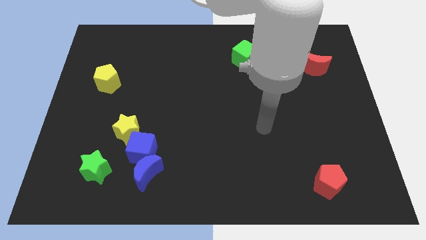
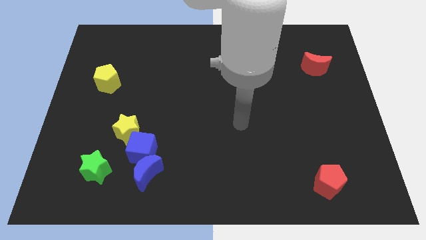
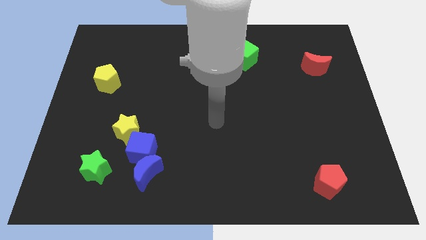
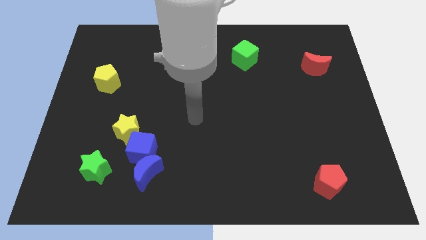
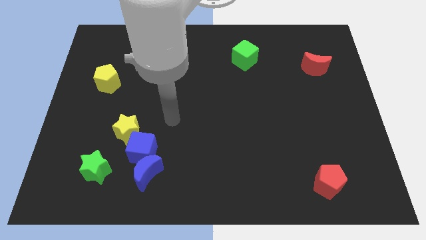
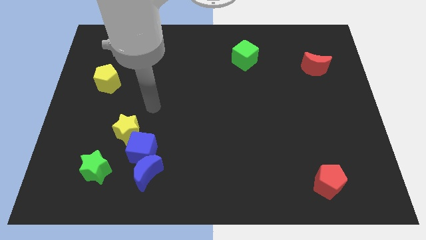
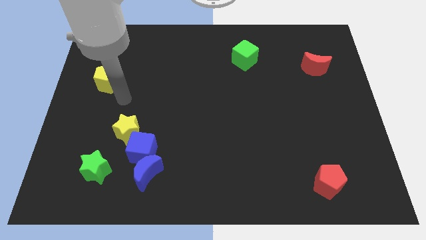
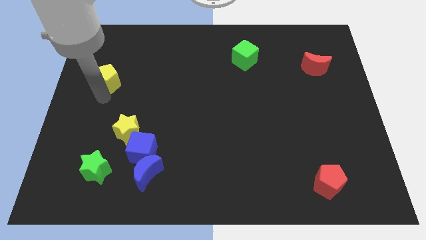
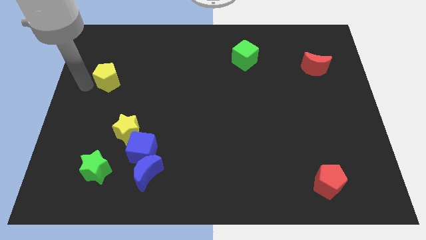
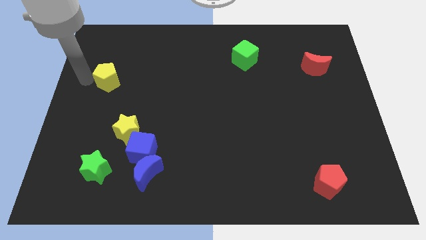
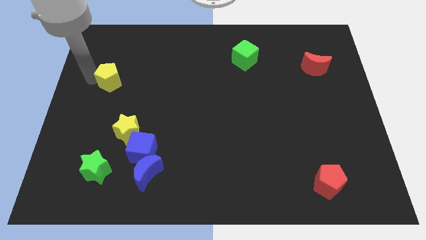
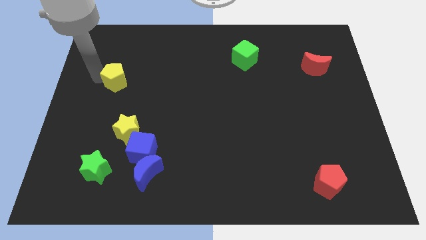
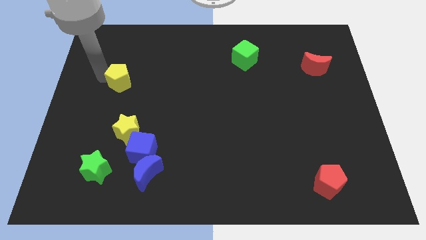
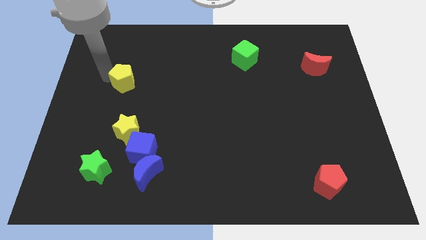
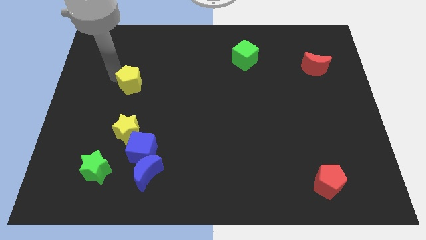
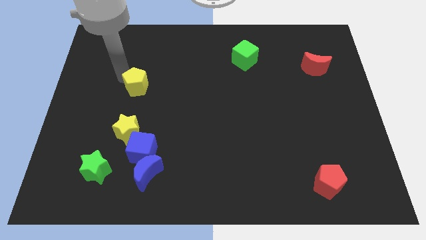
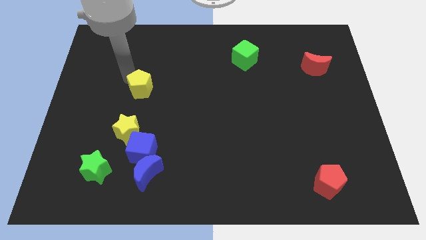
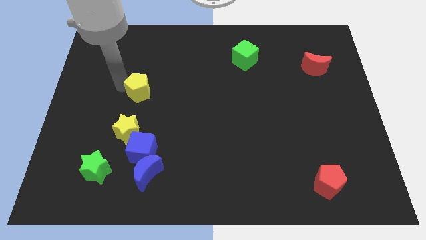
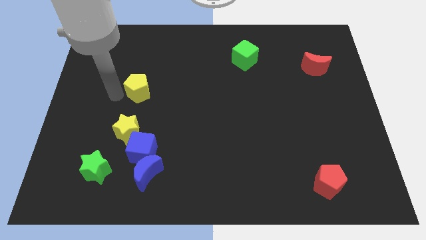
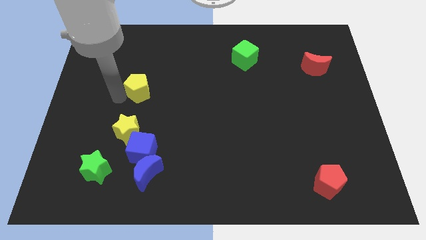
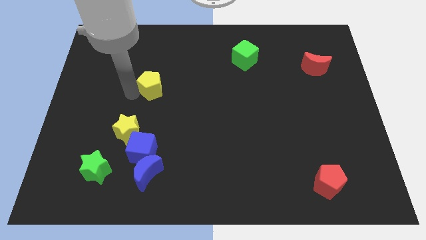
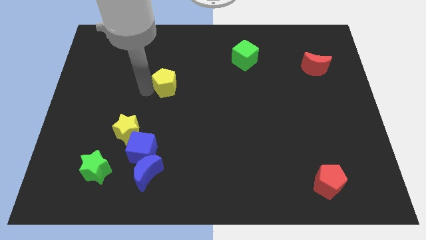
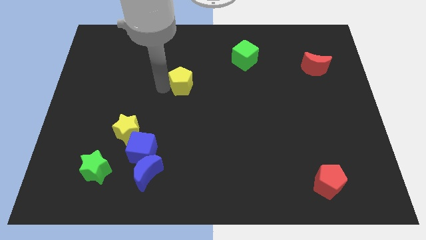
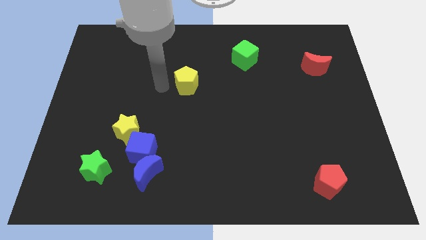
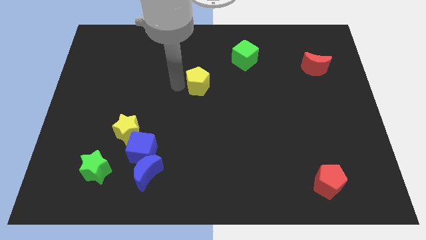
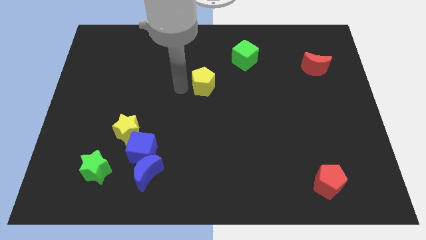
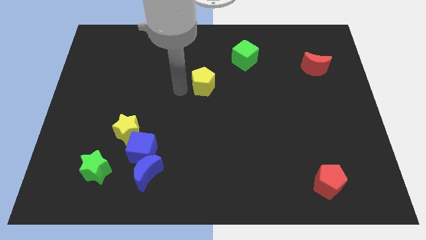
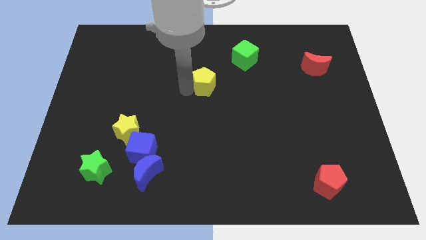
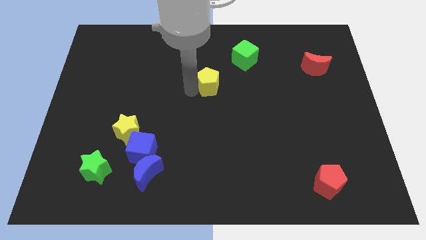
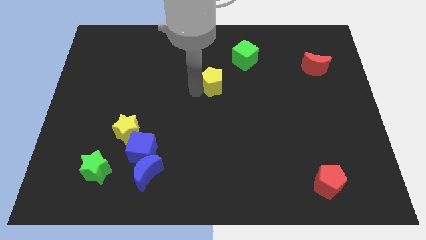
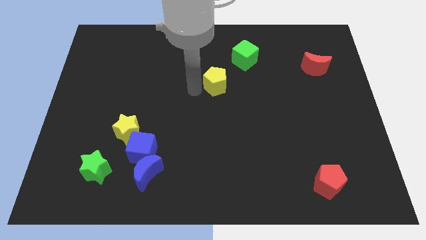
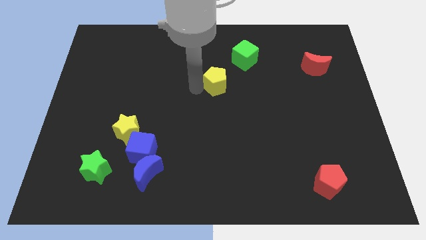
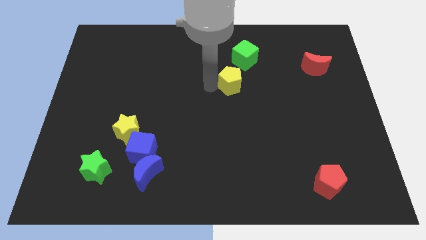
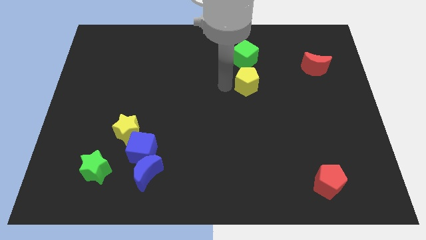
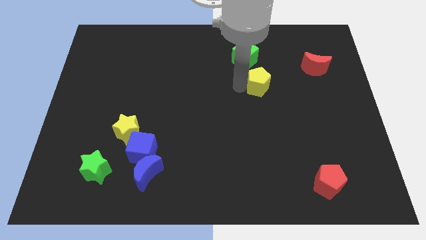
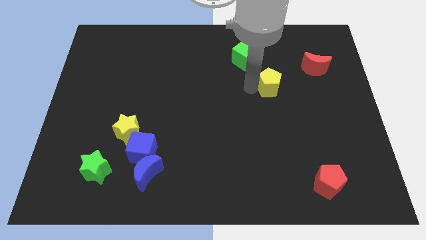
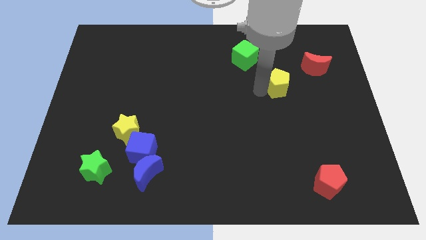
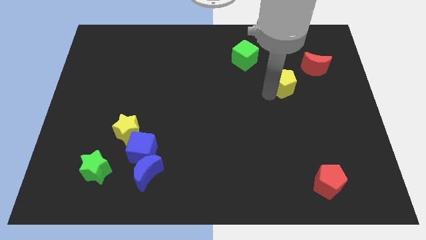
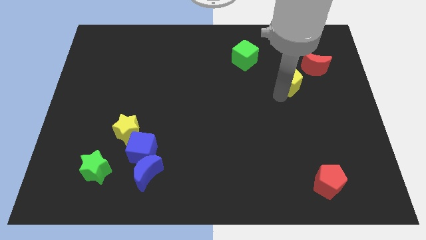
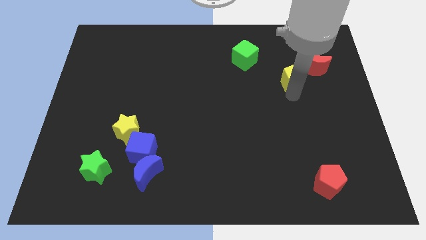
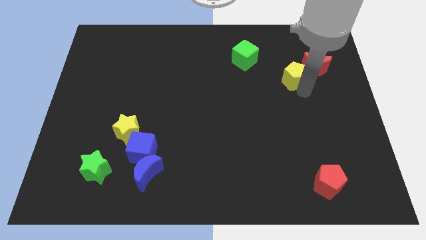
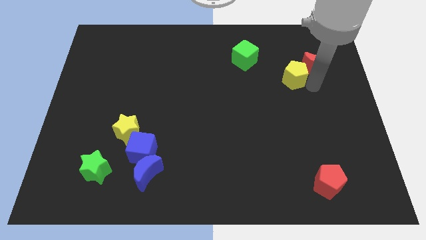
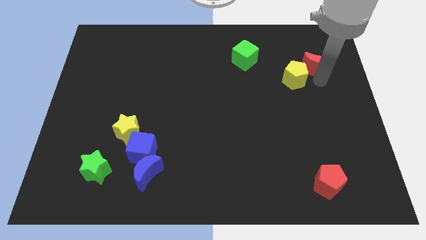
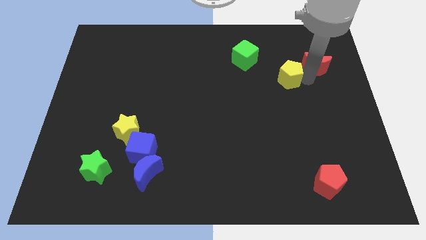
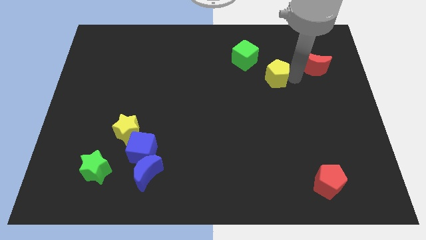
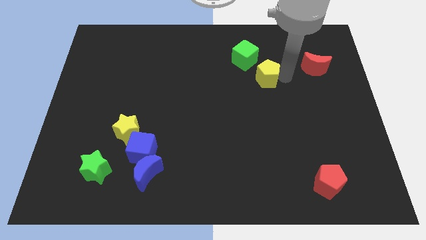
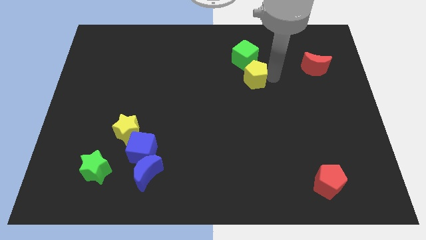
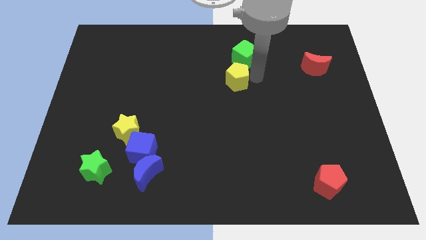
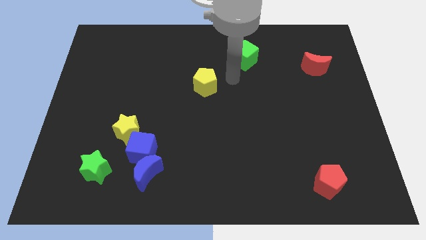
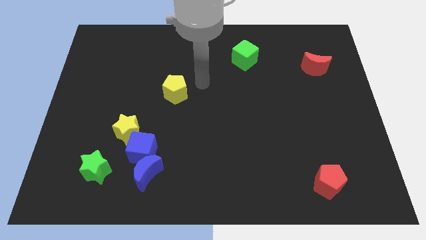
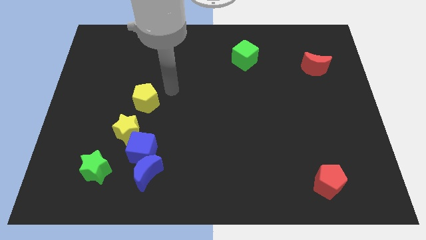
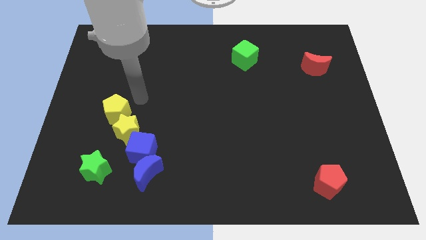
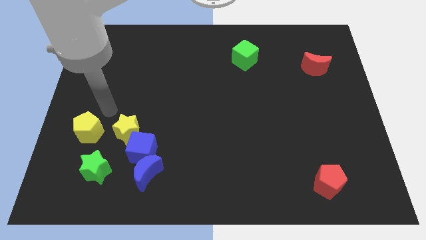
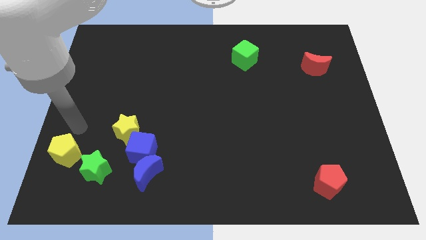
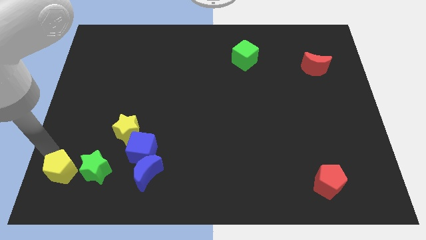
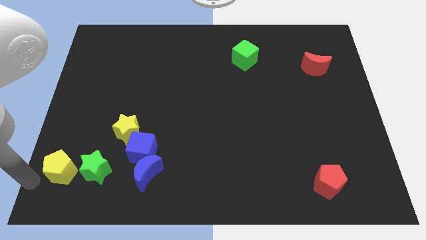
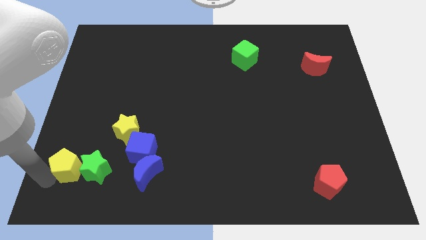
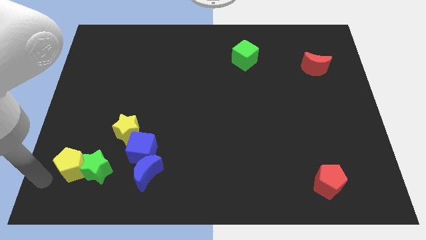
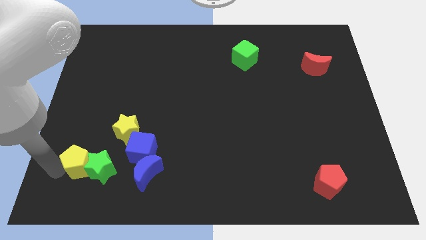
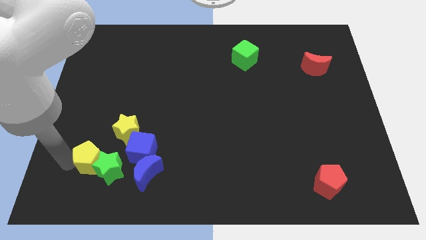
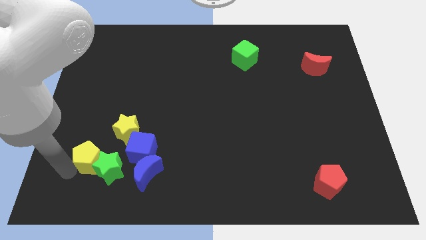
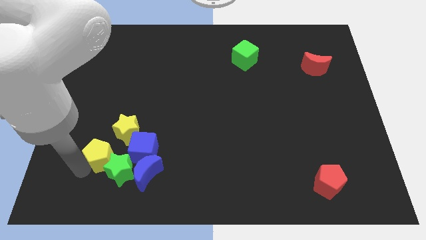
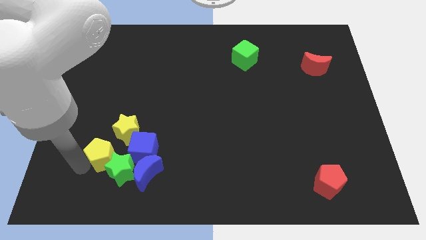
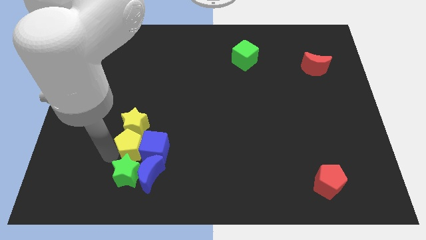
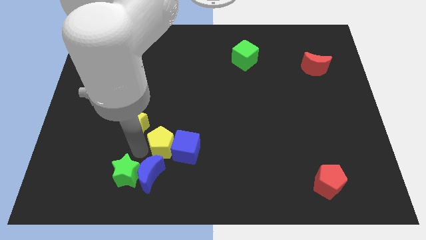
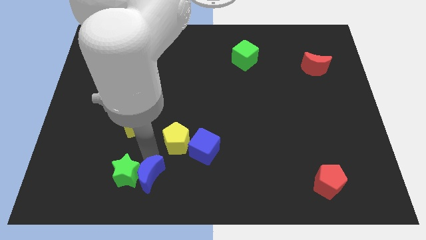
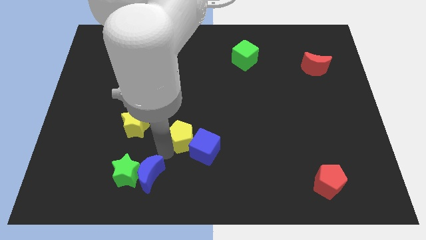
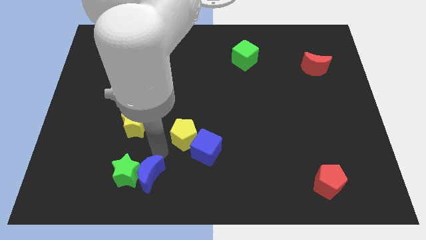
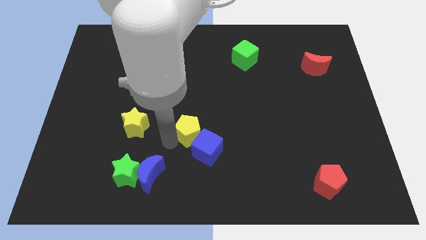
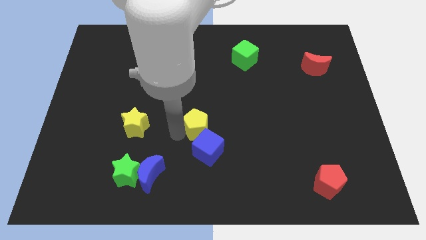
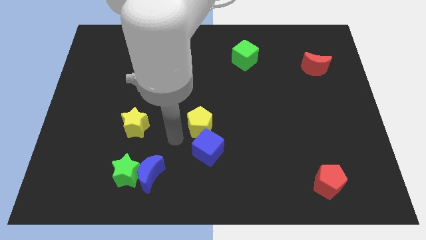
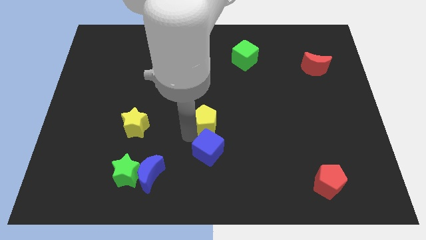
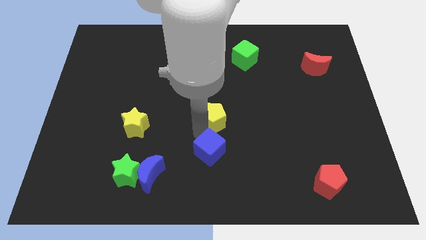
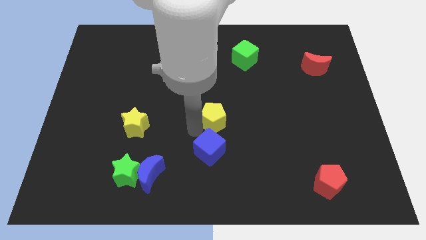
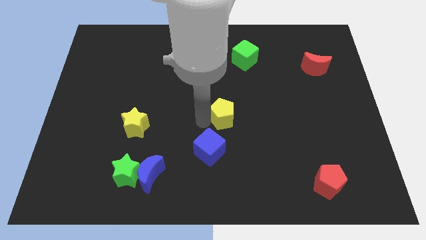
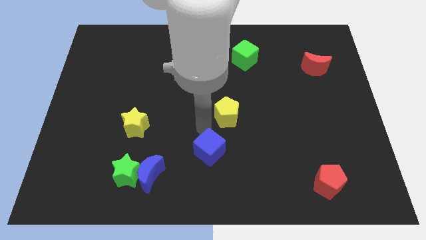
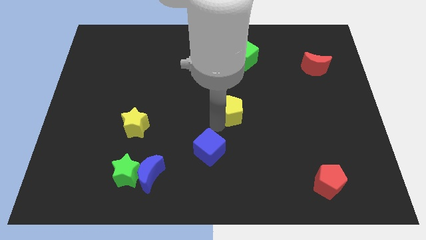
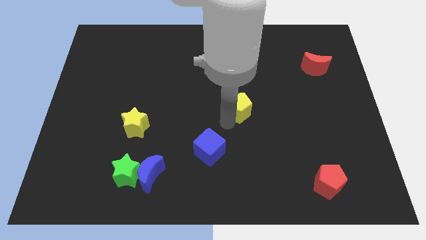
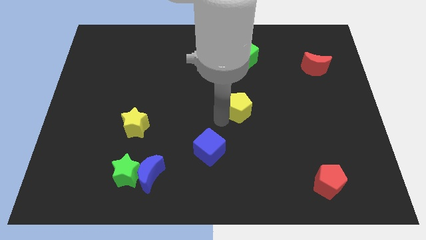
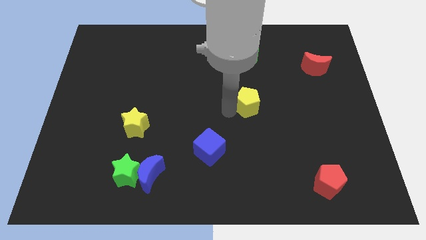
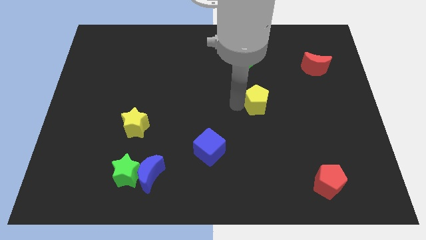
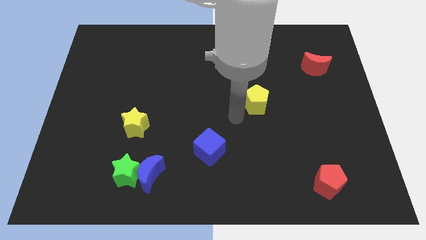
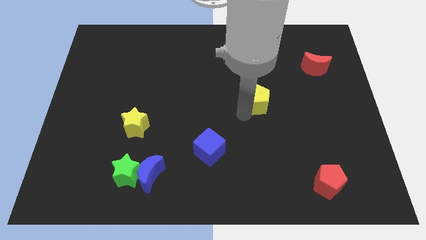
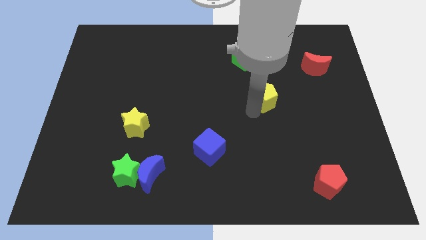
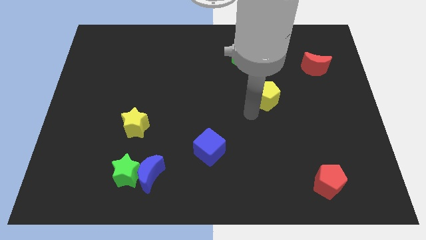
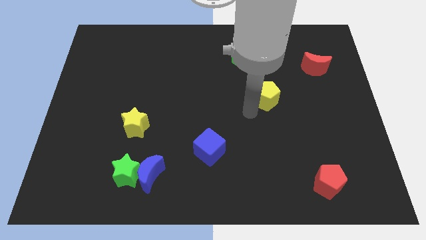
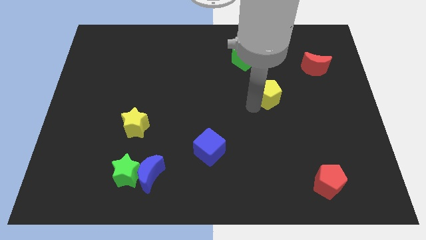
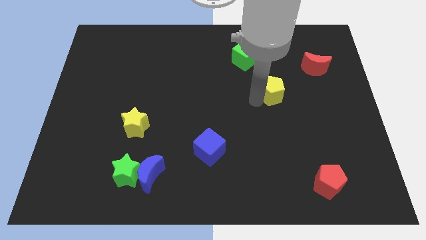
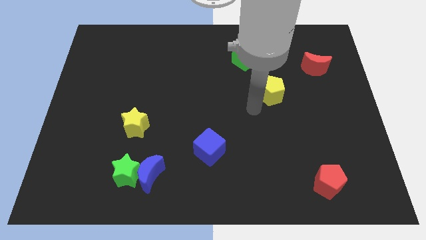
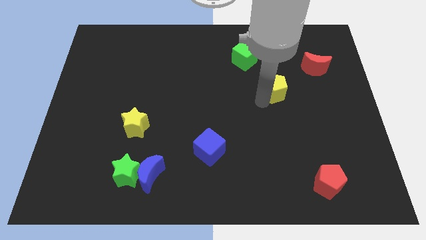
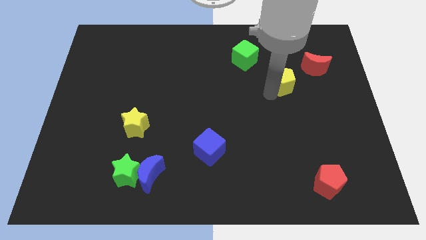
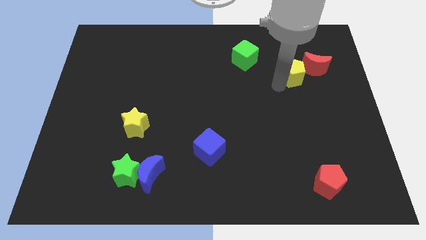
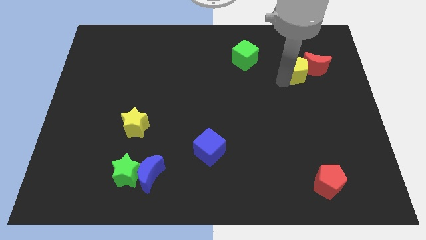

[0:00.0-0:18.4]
push the yellow pentagon close to the red moon
